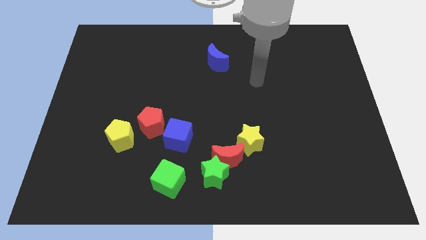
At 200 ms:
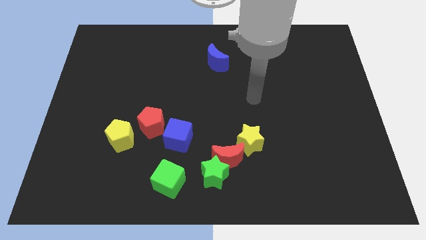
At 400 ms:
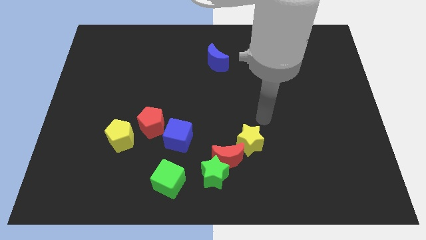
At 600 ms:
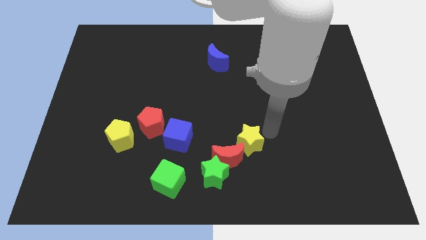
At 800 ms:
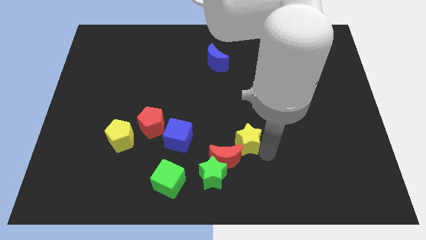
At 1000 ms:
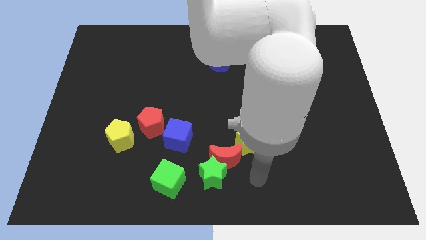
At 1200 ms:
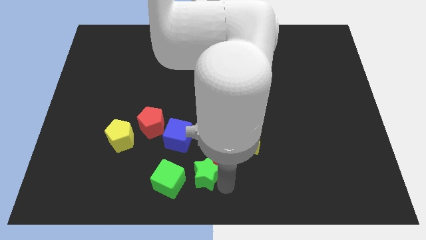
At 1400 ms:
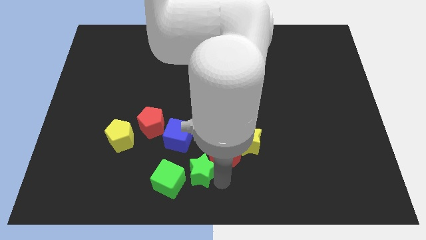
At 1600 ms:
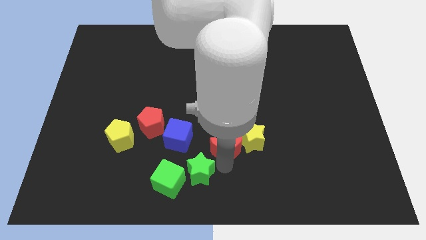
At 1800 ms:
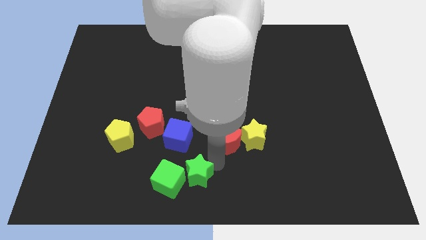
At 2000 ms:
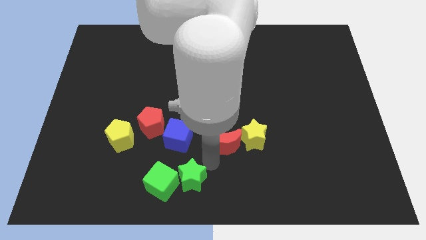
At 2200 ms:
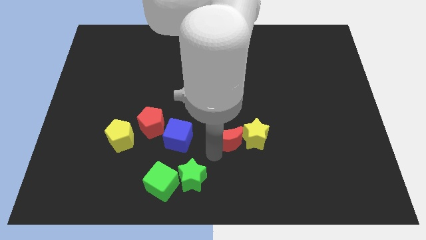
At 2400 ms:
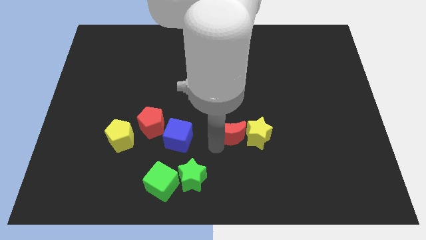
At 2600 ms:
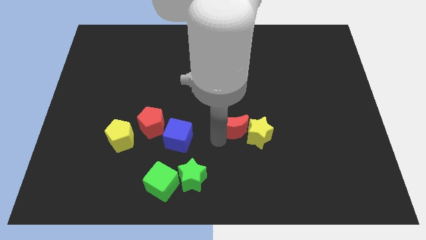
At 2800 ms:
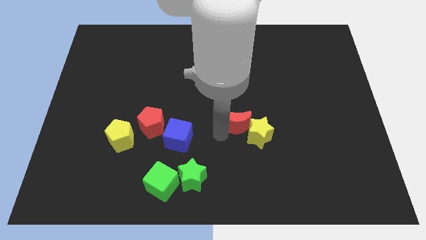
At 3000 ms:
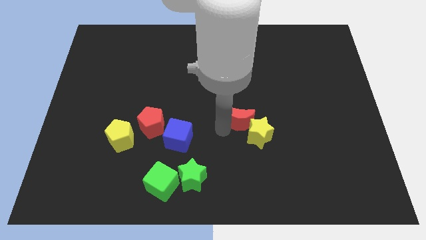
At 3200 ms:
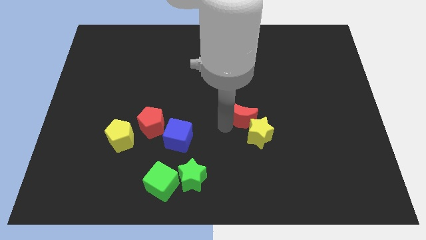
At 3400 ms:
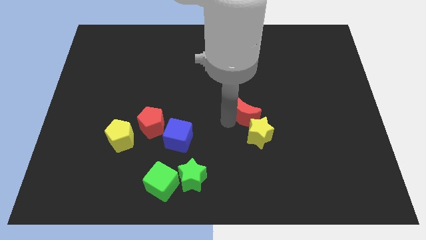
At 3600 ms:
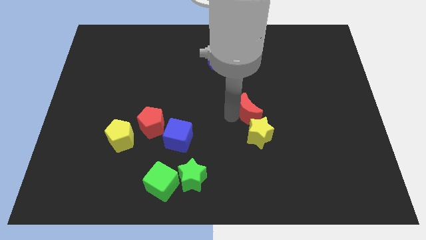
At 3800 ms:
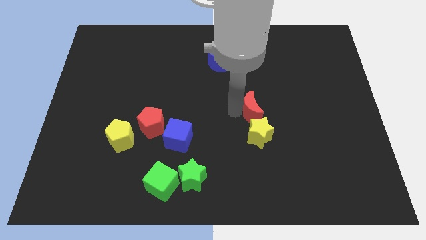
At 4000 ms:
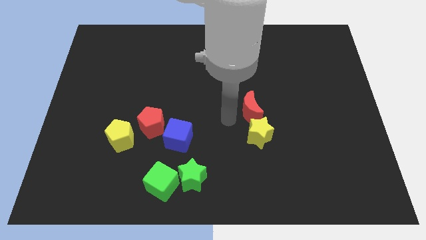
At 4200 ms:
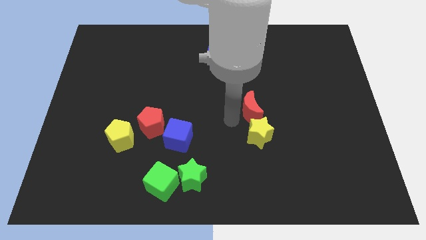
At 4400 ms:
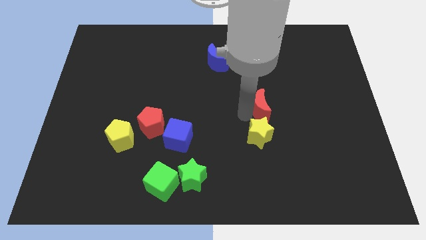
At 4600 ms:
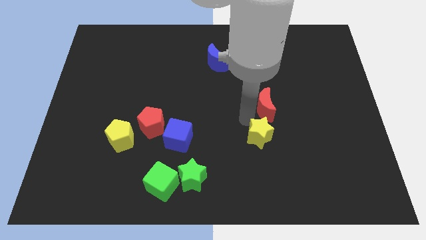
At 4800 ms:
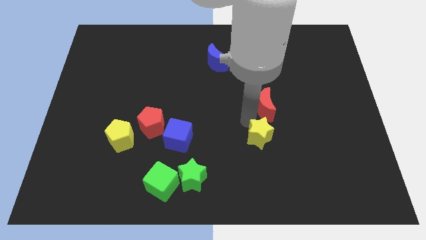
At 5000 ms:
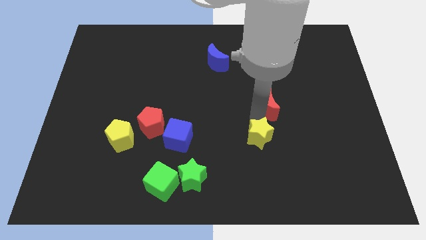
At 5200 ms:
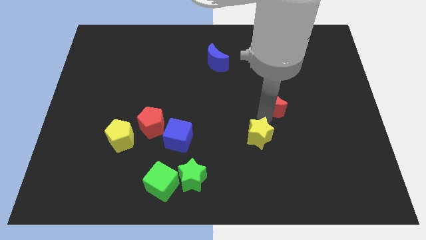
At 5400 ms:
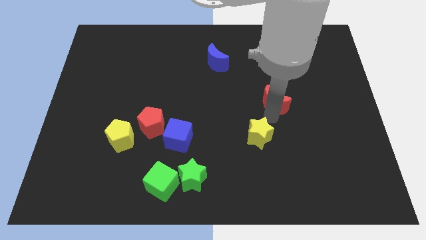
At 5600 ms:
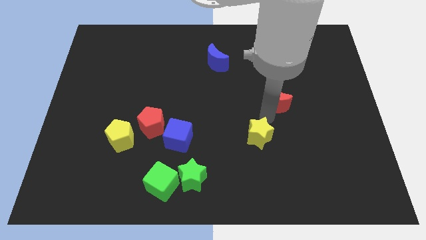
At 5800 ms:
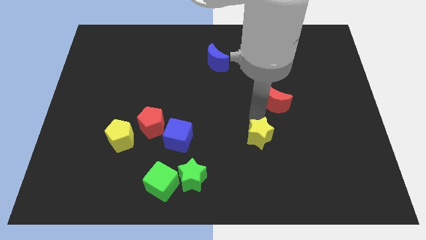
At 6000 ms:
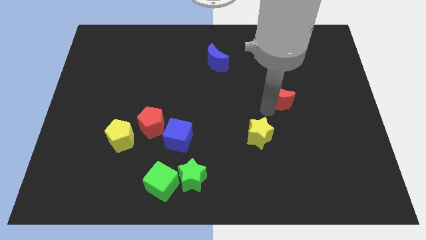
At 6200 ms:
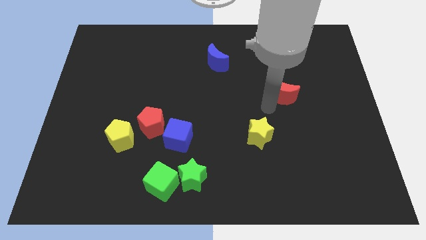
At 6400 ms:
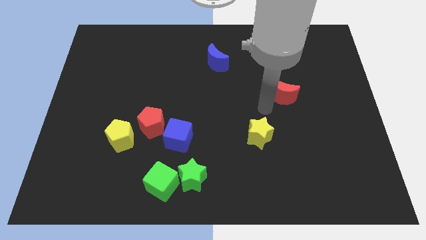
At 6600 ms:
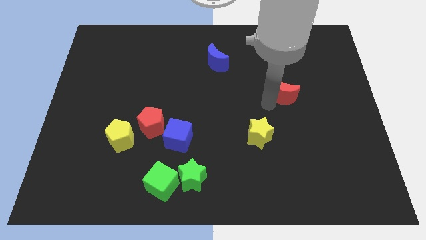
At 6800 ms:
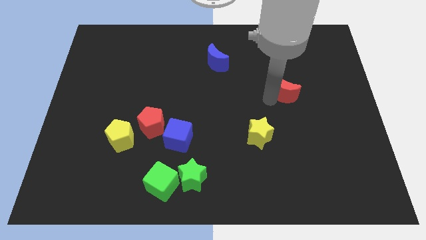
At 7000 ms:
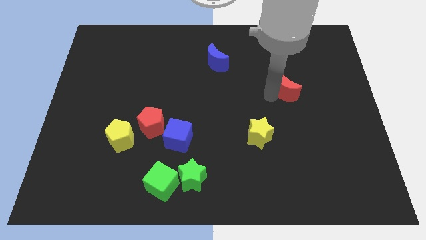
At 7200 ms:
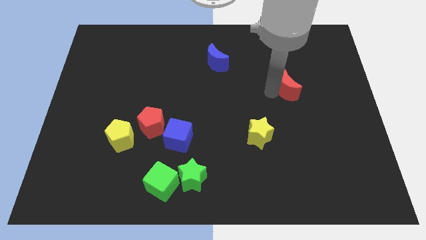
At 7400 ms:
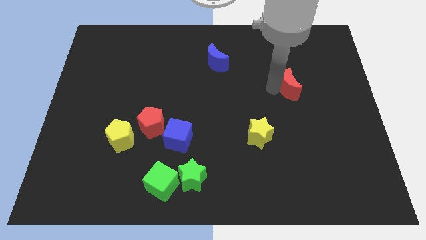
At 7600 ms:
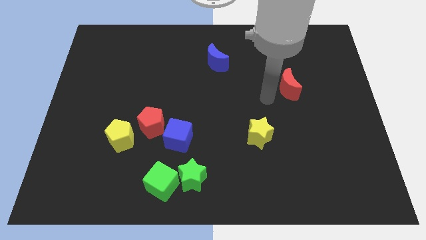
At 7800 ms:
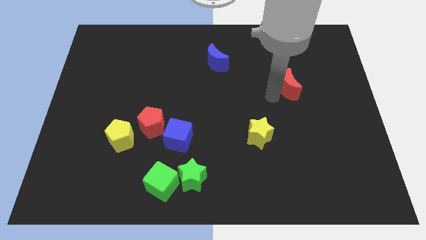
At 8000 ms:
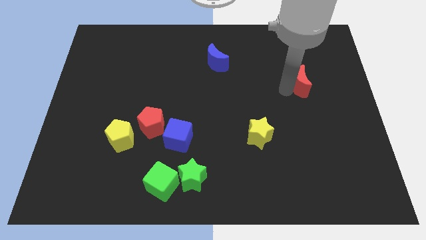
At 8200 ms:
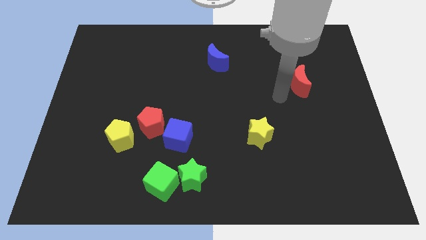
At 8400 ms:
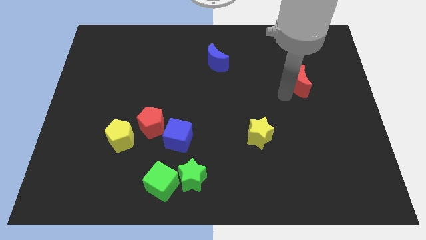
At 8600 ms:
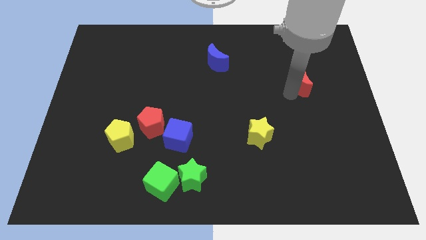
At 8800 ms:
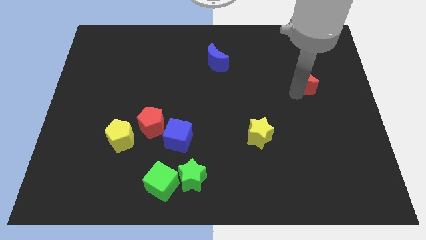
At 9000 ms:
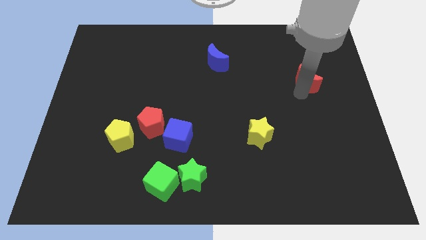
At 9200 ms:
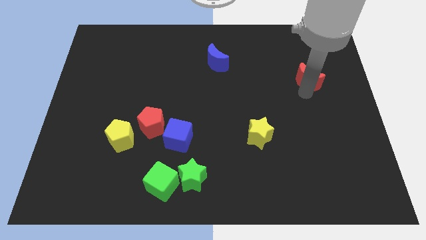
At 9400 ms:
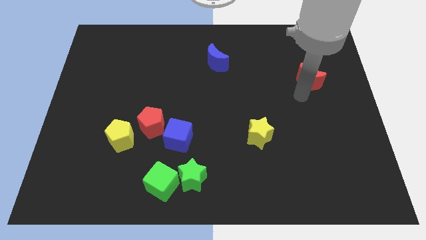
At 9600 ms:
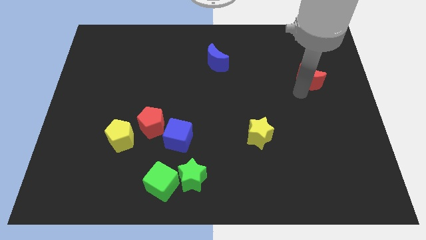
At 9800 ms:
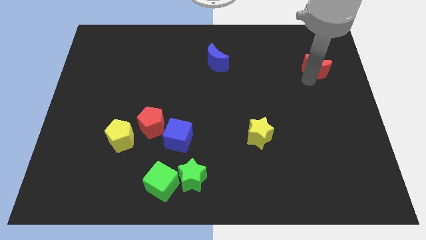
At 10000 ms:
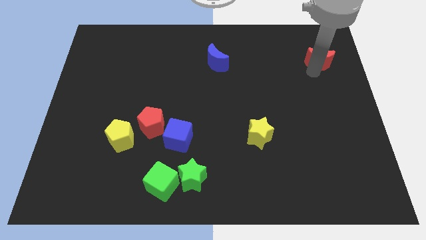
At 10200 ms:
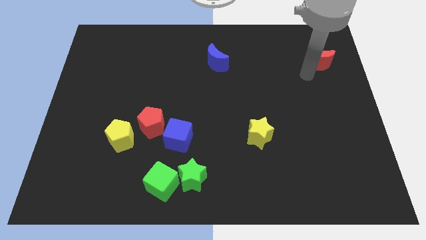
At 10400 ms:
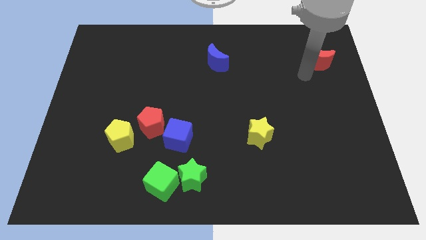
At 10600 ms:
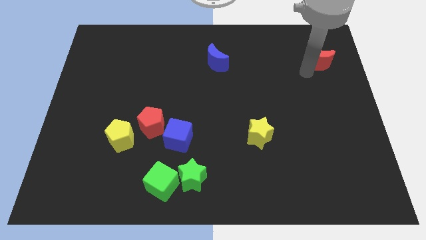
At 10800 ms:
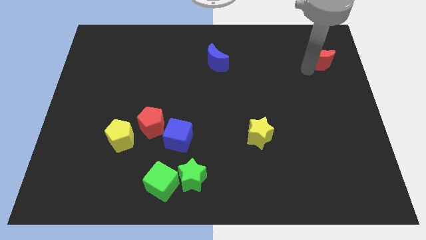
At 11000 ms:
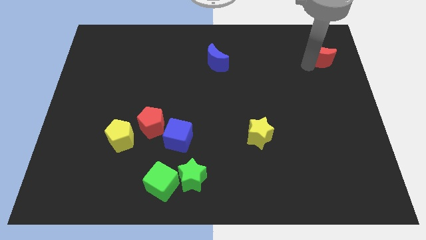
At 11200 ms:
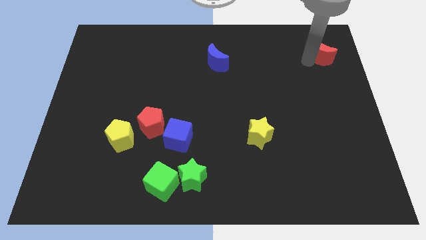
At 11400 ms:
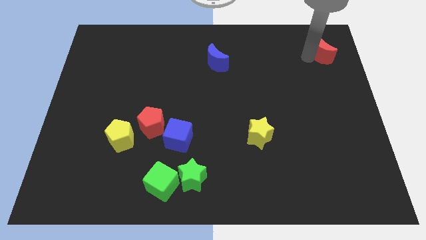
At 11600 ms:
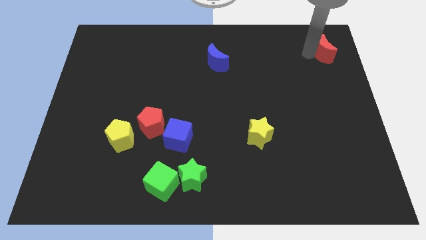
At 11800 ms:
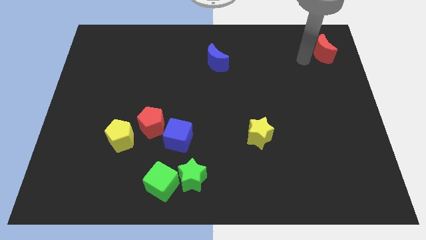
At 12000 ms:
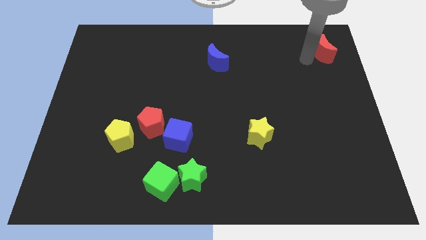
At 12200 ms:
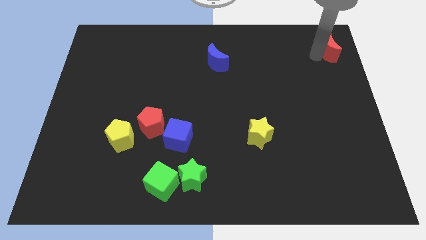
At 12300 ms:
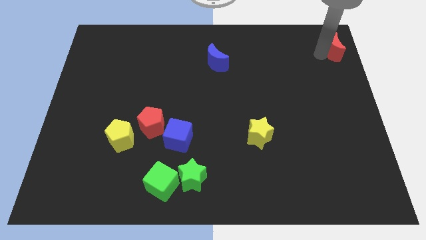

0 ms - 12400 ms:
move the red moon to the top right
